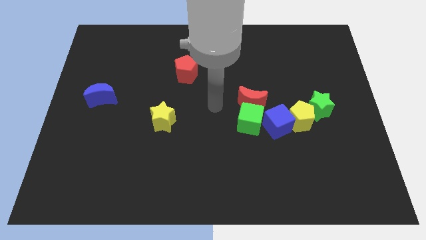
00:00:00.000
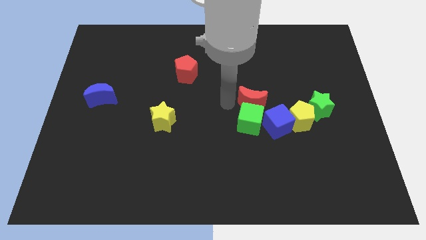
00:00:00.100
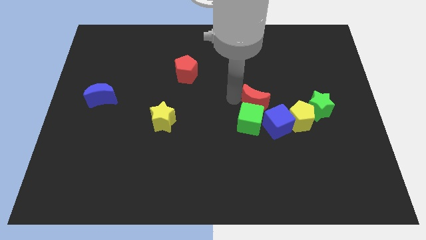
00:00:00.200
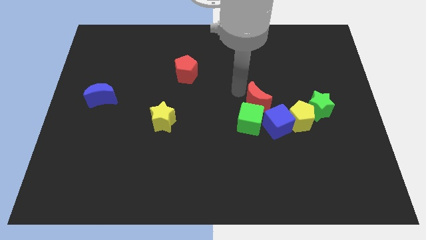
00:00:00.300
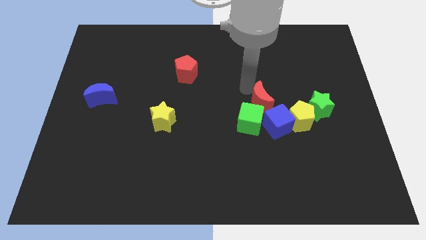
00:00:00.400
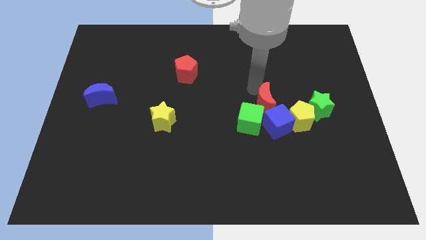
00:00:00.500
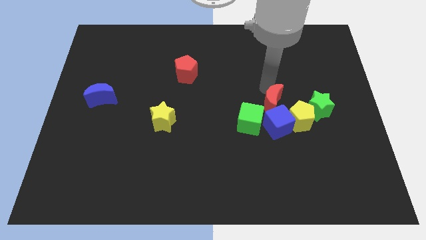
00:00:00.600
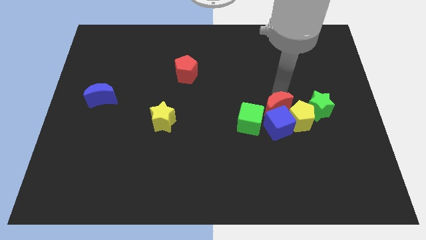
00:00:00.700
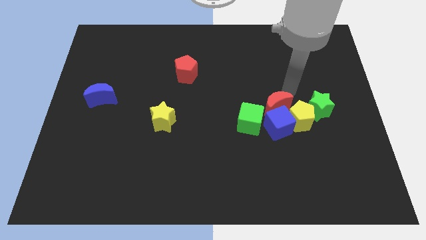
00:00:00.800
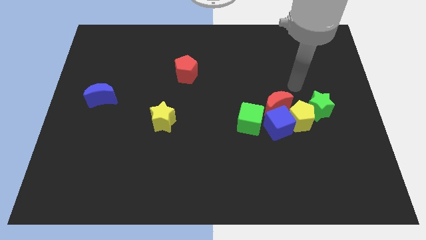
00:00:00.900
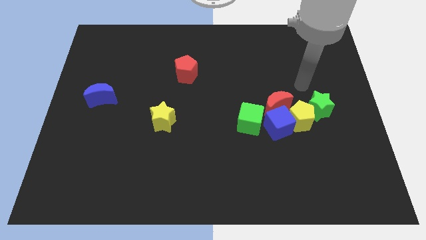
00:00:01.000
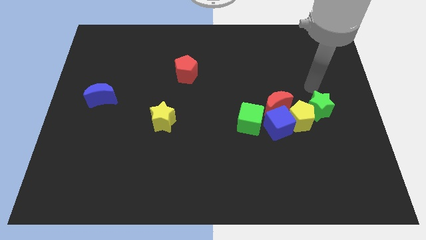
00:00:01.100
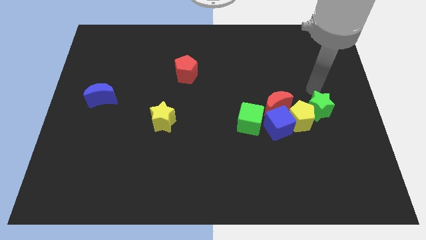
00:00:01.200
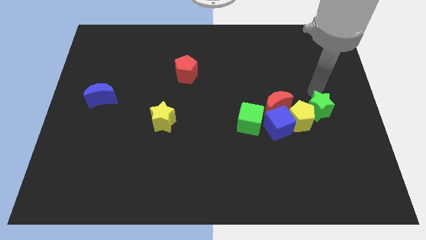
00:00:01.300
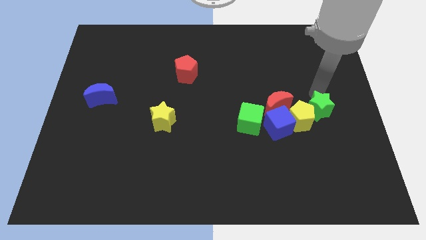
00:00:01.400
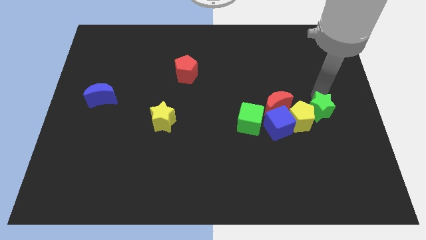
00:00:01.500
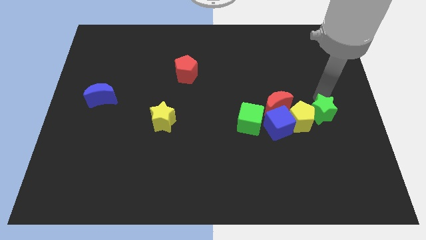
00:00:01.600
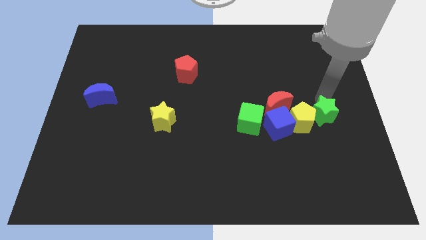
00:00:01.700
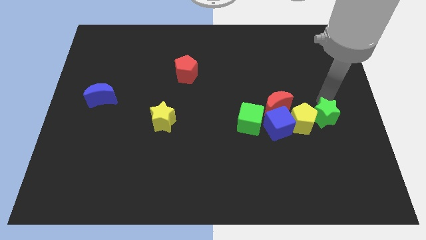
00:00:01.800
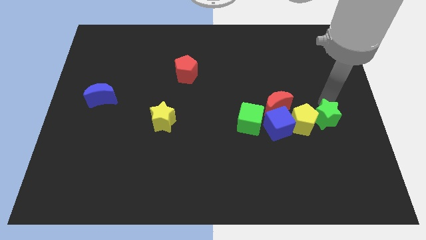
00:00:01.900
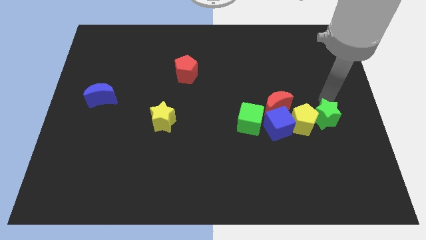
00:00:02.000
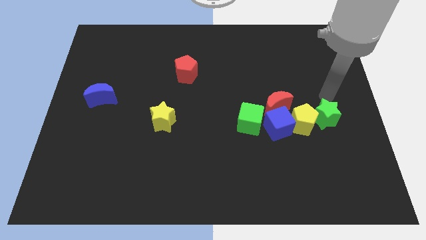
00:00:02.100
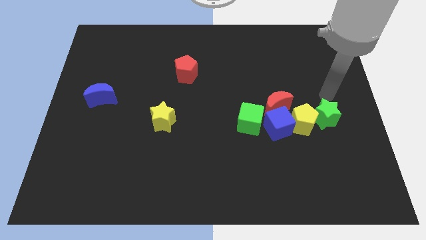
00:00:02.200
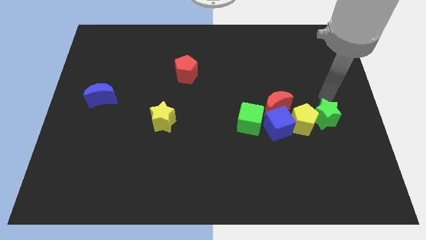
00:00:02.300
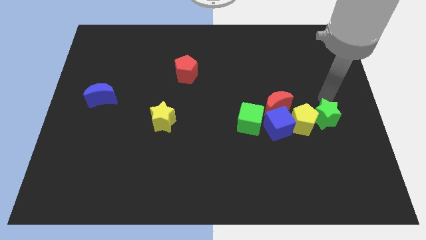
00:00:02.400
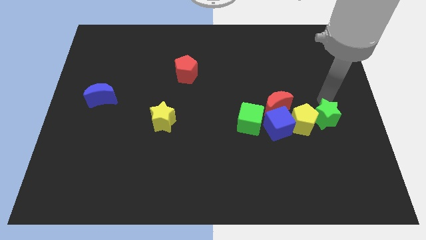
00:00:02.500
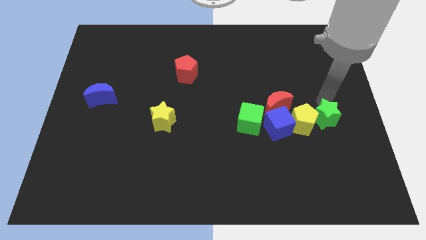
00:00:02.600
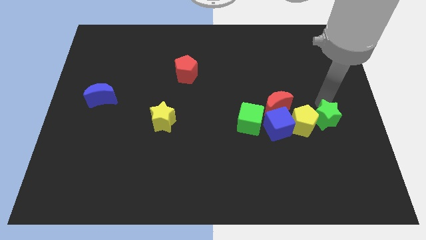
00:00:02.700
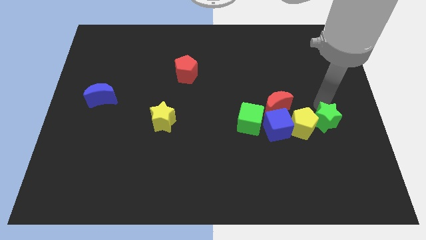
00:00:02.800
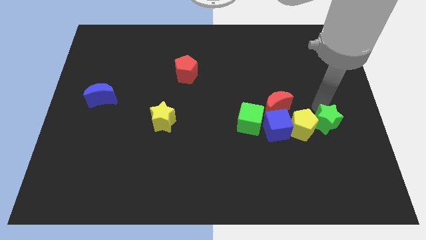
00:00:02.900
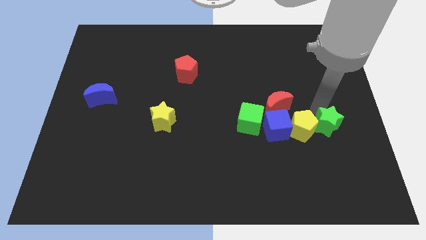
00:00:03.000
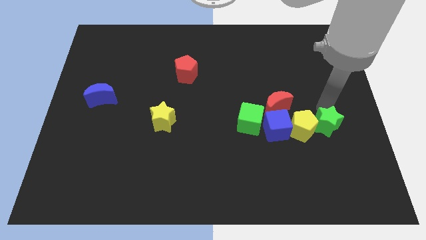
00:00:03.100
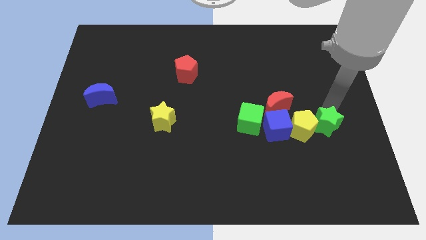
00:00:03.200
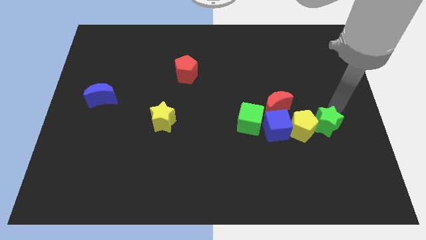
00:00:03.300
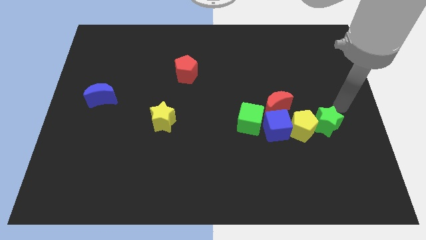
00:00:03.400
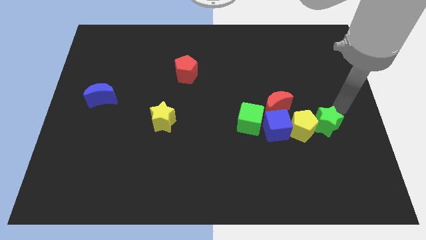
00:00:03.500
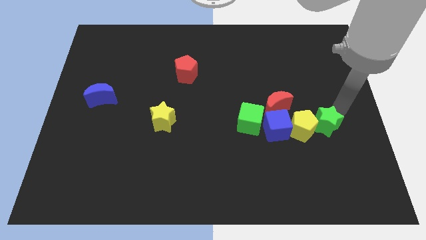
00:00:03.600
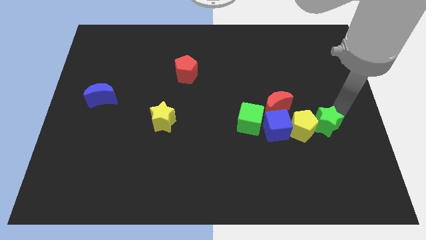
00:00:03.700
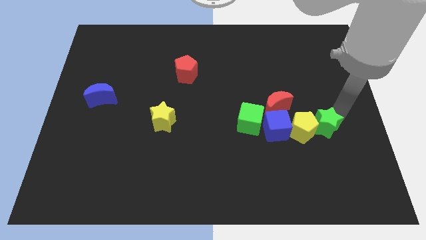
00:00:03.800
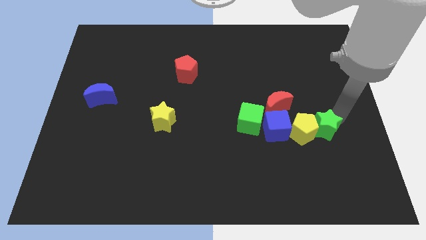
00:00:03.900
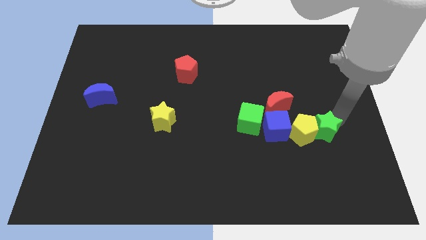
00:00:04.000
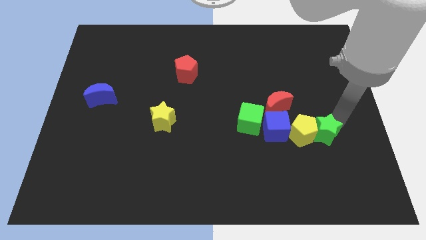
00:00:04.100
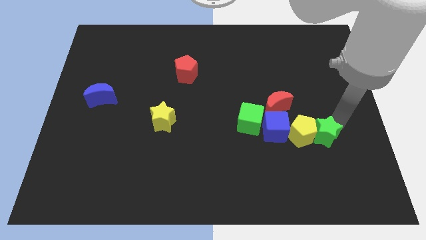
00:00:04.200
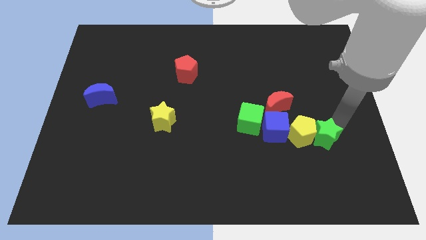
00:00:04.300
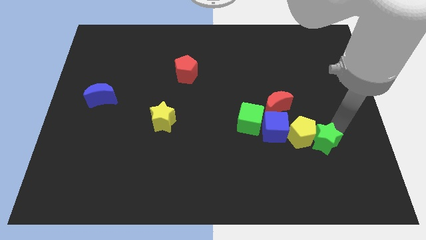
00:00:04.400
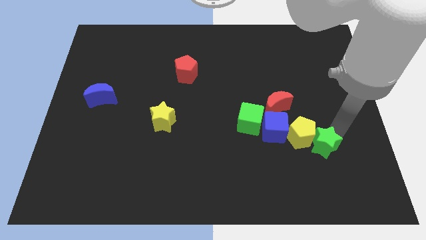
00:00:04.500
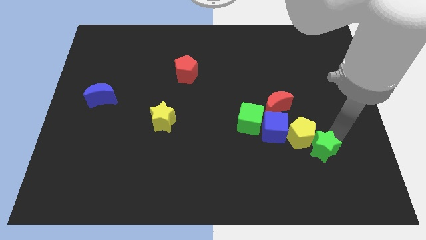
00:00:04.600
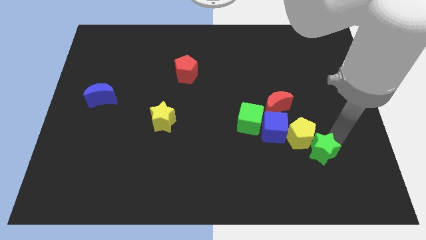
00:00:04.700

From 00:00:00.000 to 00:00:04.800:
slightly slide the green star downwards and left diagonally

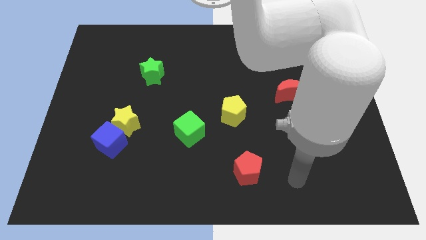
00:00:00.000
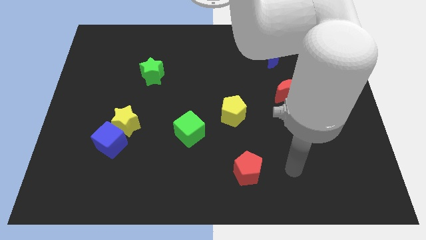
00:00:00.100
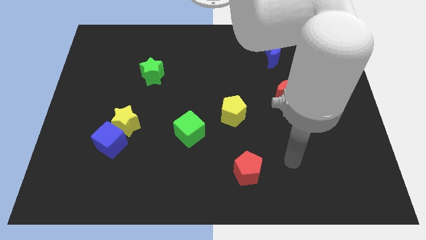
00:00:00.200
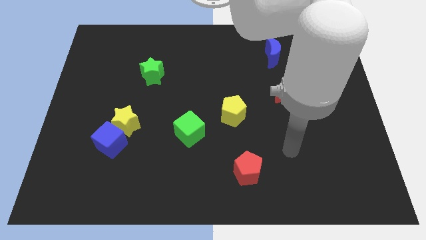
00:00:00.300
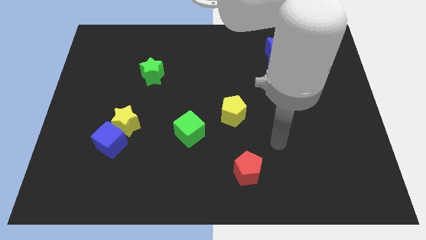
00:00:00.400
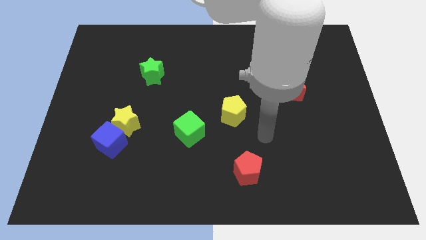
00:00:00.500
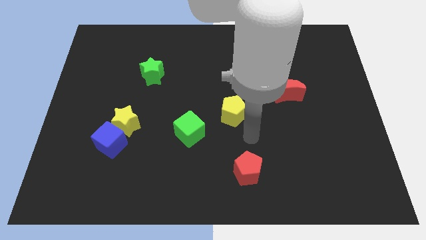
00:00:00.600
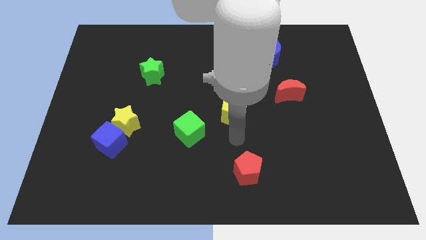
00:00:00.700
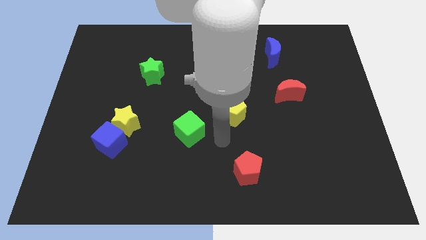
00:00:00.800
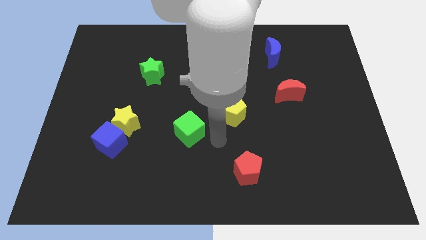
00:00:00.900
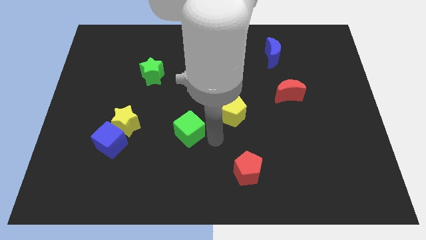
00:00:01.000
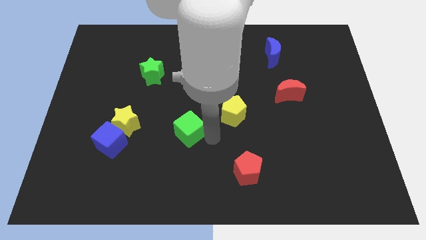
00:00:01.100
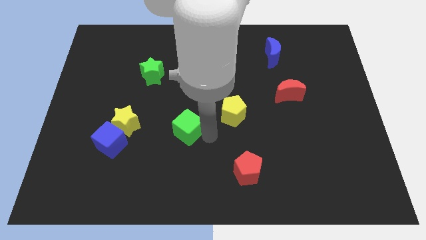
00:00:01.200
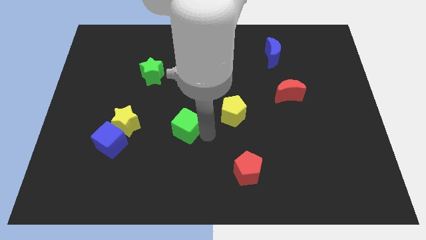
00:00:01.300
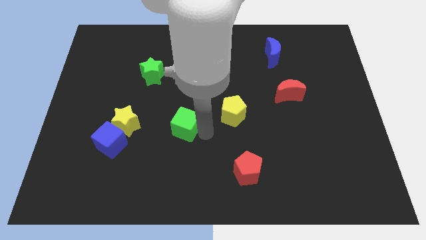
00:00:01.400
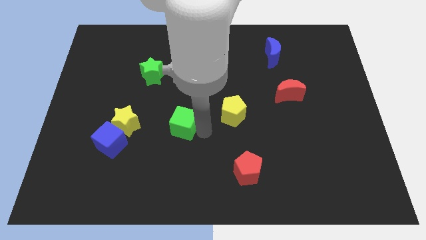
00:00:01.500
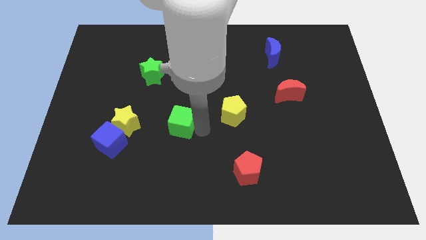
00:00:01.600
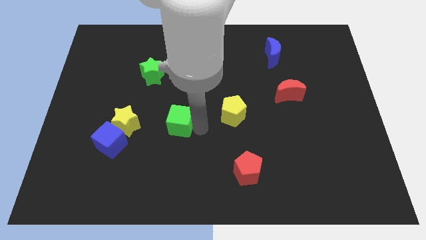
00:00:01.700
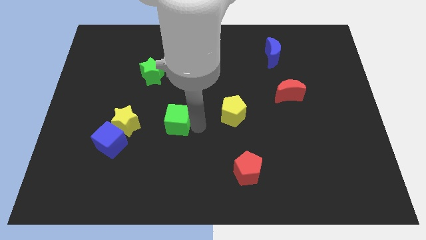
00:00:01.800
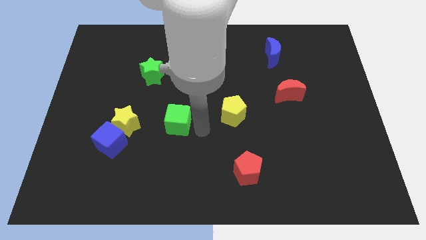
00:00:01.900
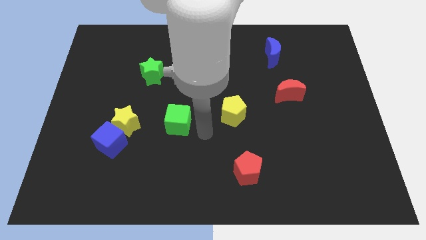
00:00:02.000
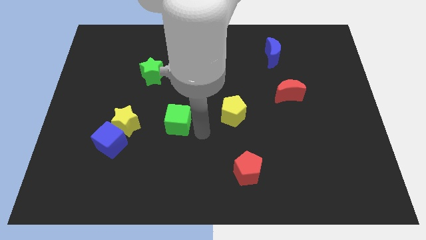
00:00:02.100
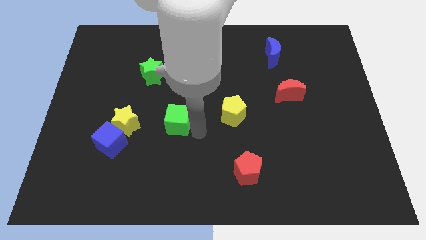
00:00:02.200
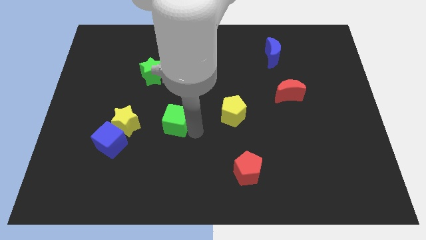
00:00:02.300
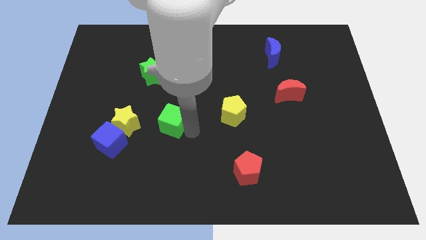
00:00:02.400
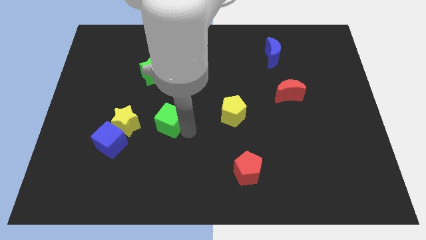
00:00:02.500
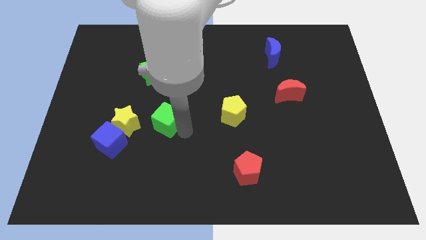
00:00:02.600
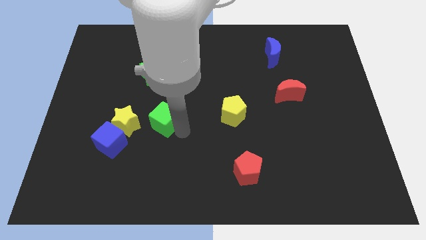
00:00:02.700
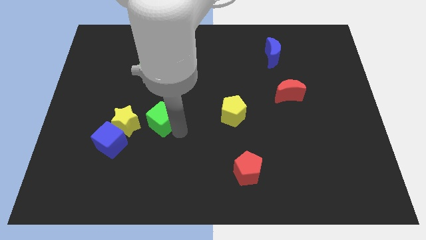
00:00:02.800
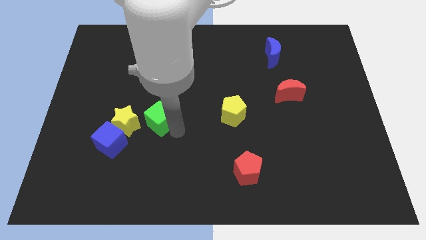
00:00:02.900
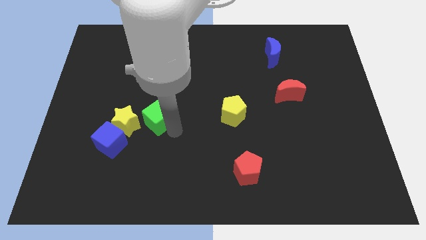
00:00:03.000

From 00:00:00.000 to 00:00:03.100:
slightly move the green cube up and then left

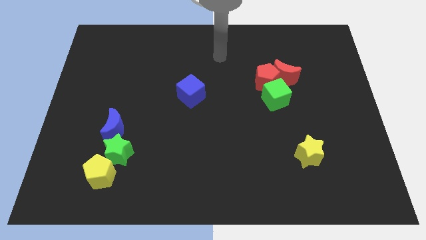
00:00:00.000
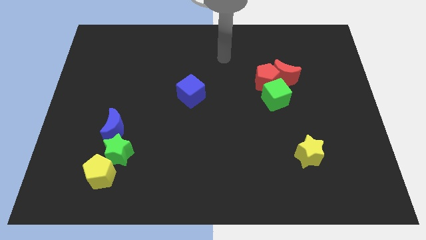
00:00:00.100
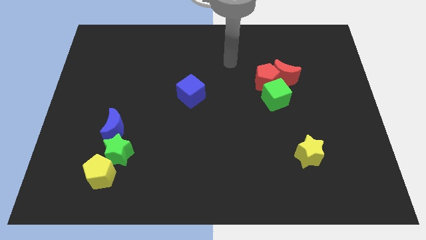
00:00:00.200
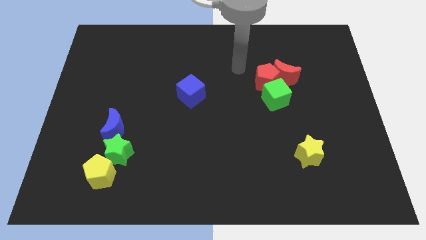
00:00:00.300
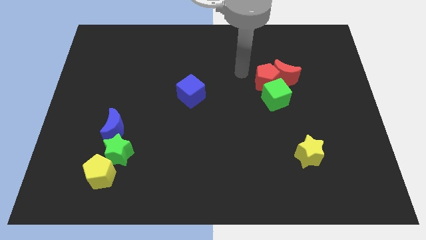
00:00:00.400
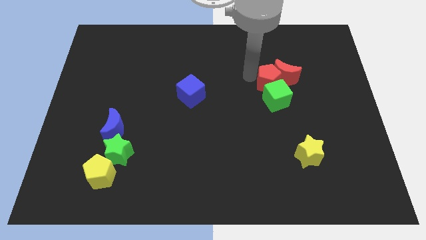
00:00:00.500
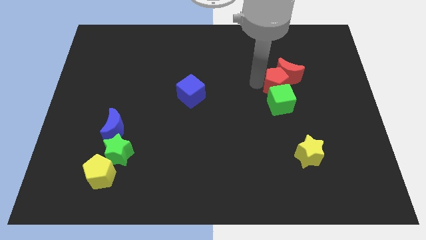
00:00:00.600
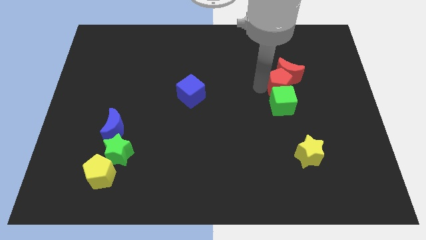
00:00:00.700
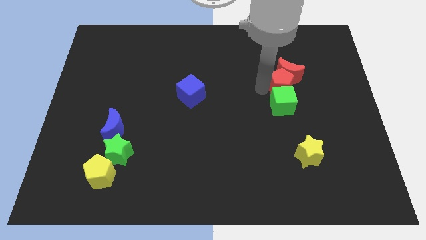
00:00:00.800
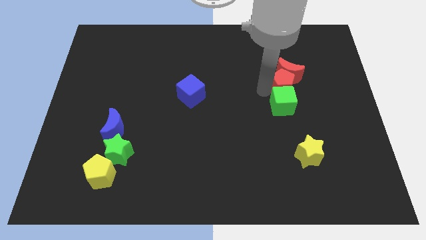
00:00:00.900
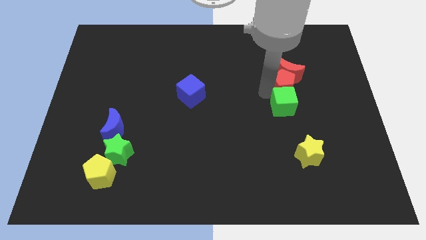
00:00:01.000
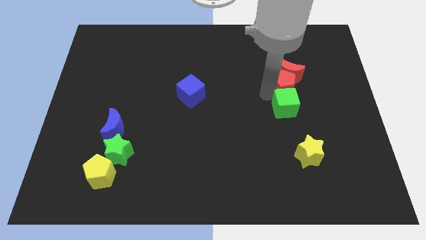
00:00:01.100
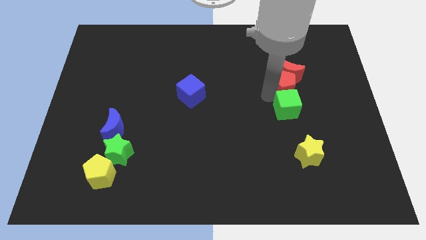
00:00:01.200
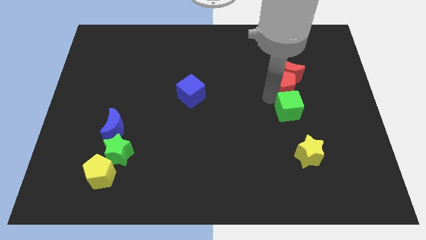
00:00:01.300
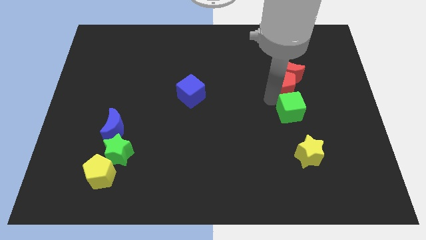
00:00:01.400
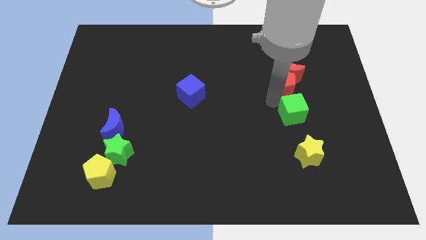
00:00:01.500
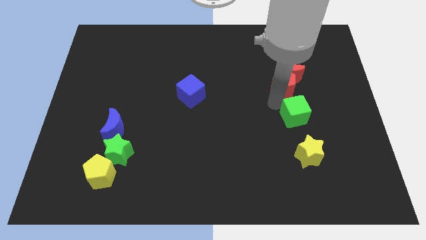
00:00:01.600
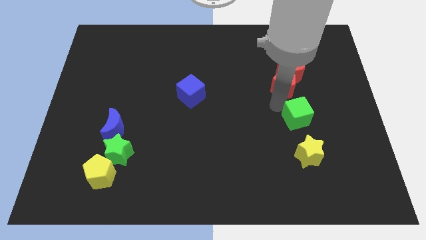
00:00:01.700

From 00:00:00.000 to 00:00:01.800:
push the green cube somewhat down and then right
